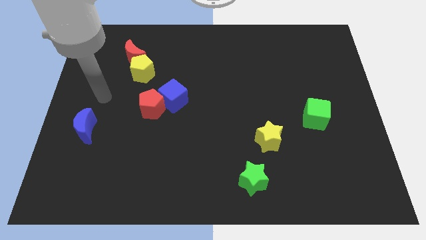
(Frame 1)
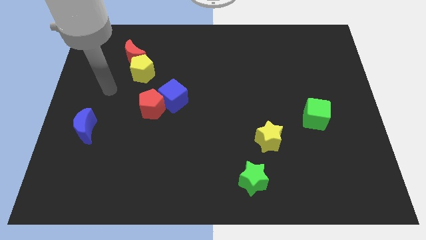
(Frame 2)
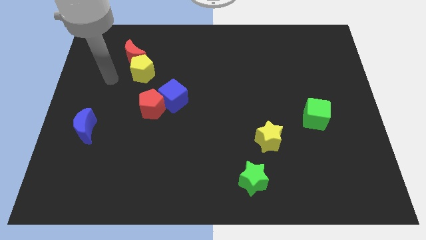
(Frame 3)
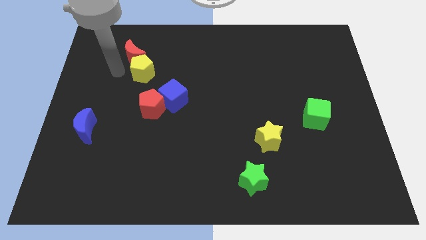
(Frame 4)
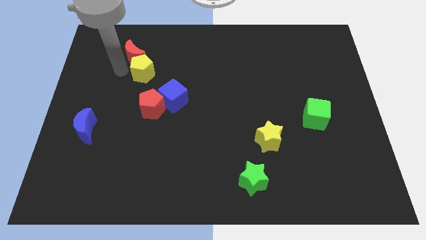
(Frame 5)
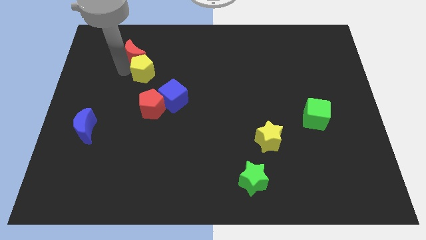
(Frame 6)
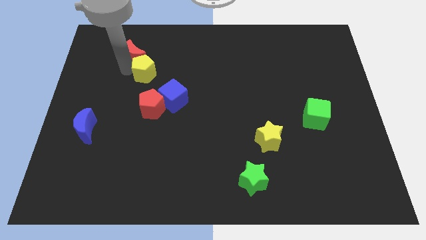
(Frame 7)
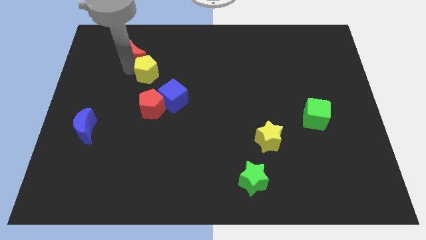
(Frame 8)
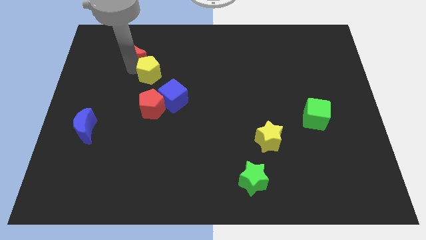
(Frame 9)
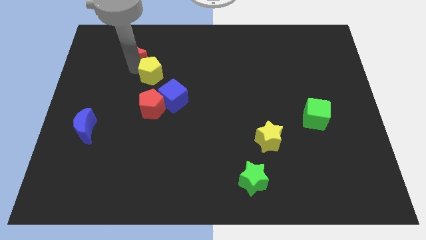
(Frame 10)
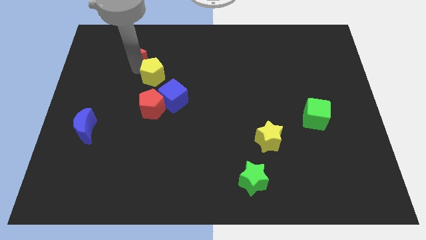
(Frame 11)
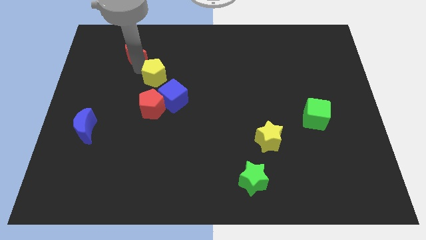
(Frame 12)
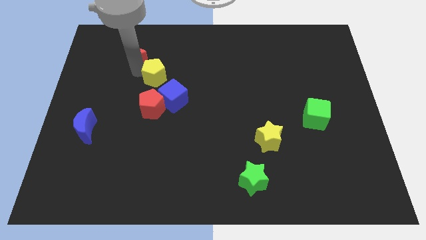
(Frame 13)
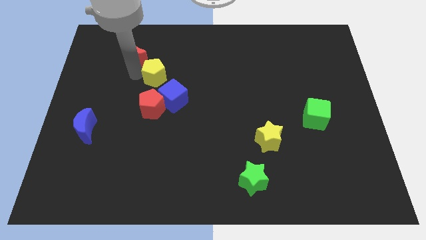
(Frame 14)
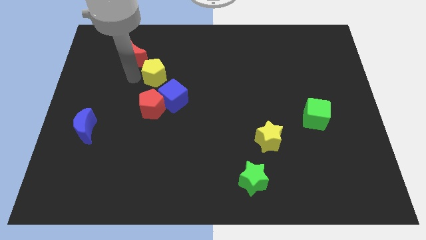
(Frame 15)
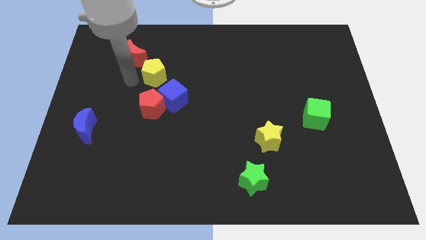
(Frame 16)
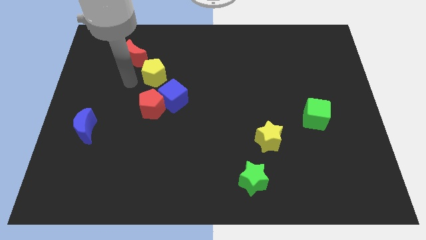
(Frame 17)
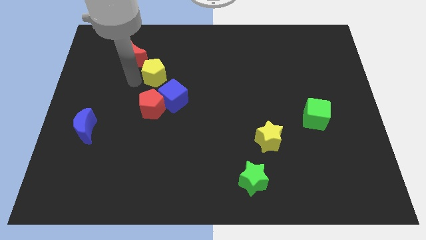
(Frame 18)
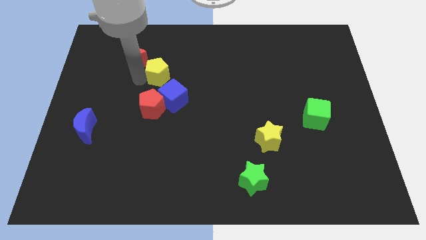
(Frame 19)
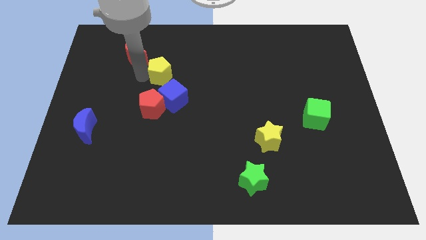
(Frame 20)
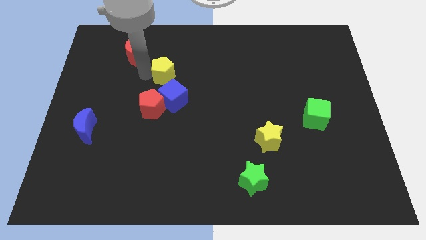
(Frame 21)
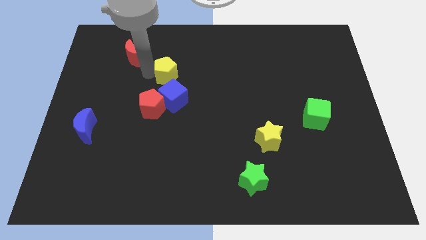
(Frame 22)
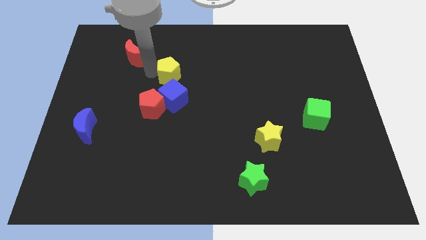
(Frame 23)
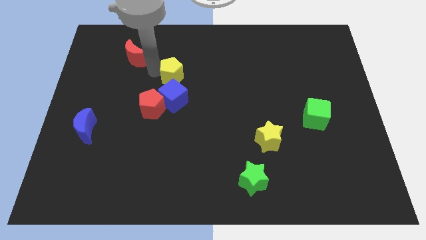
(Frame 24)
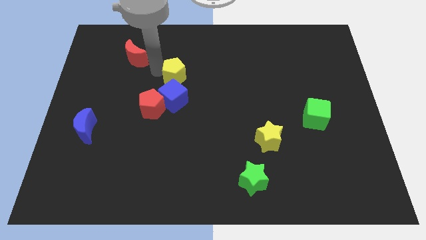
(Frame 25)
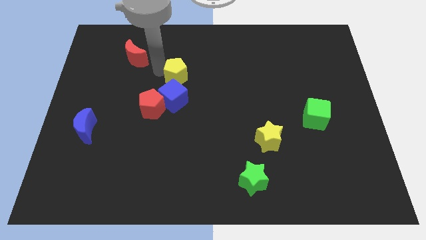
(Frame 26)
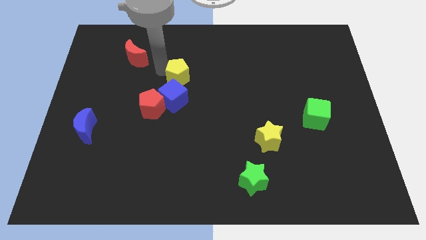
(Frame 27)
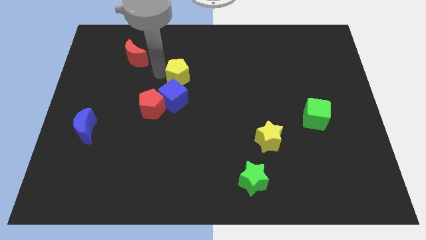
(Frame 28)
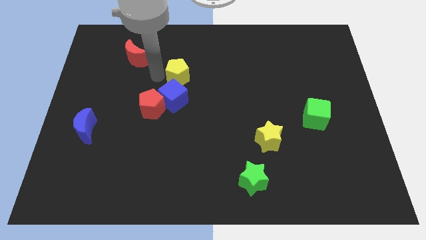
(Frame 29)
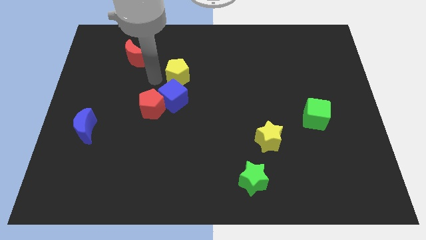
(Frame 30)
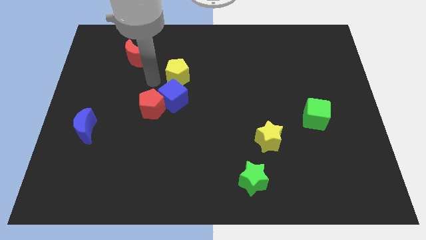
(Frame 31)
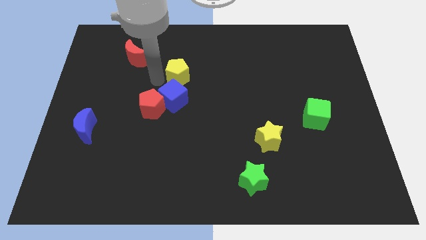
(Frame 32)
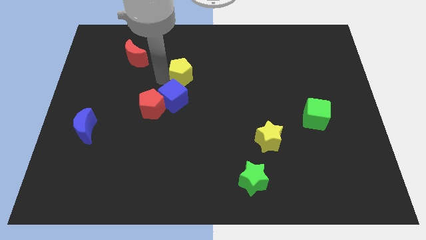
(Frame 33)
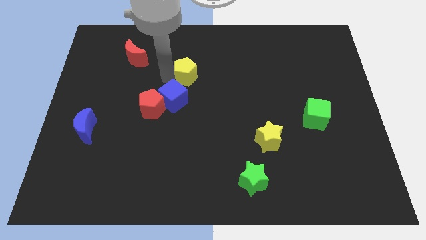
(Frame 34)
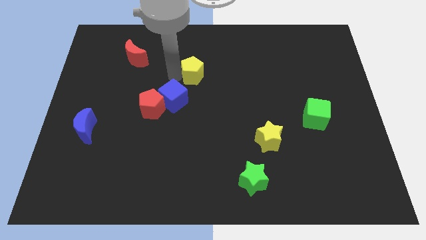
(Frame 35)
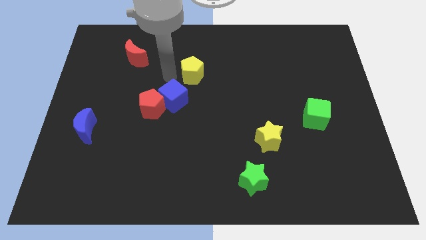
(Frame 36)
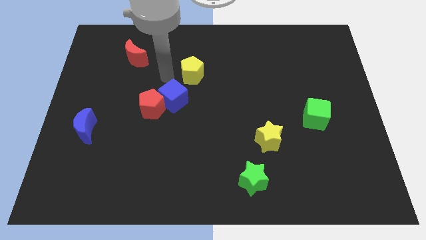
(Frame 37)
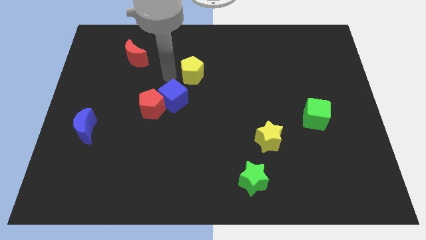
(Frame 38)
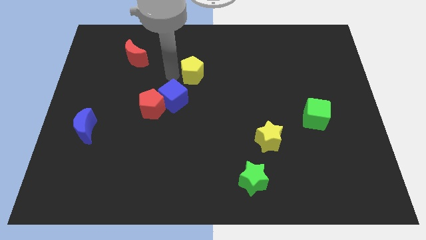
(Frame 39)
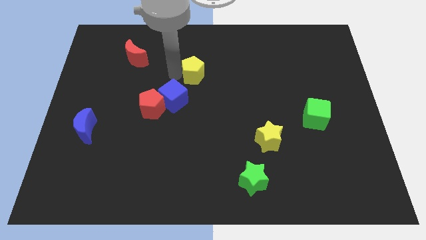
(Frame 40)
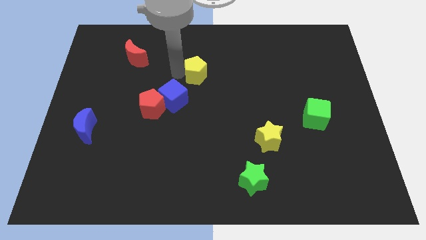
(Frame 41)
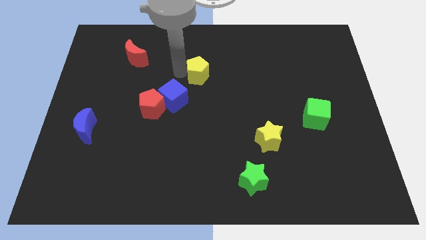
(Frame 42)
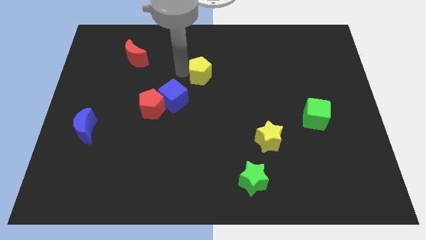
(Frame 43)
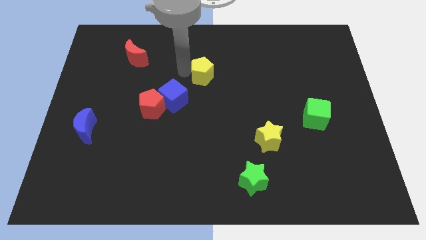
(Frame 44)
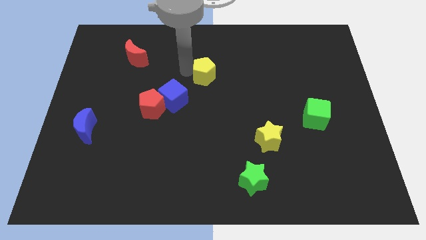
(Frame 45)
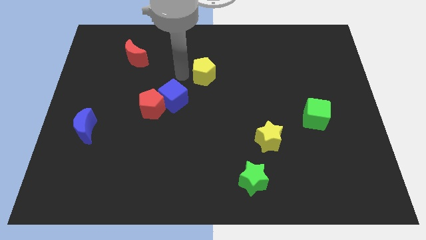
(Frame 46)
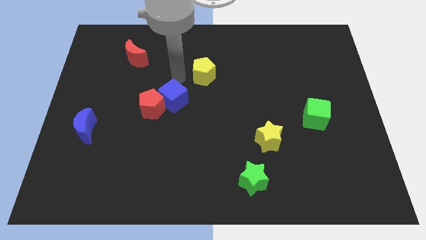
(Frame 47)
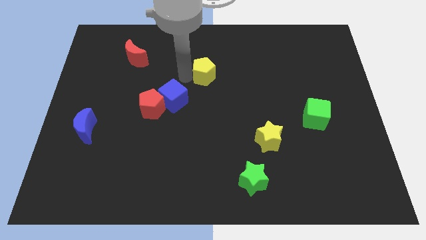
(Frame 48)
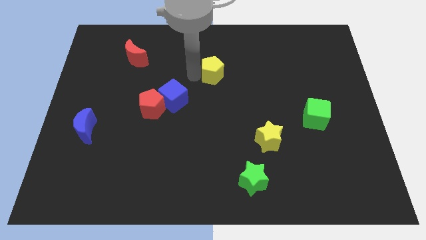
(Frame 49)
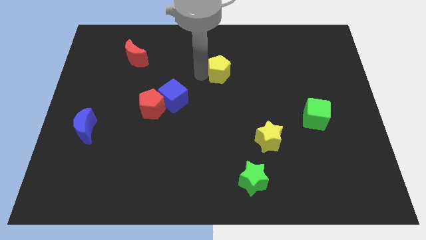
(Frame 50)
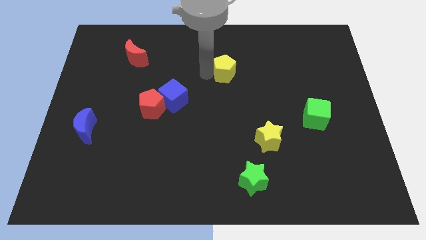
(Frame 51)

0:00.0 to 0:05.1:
push the yellow pentagon right

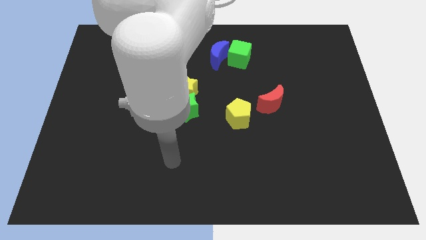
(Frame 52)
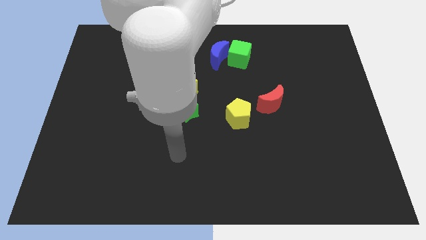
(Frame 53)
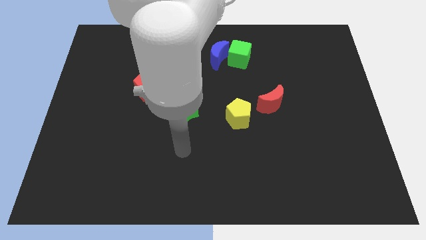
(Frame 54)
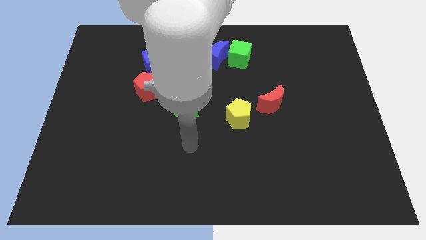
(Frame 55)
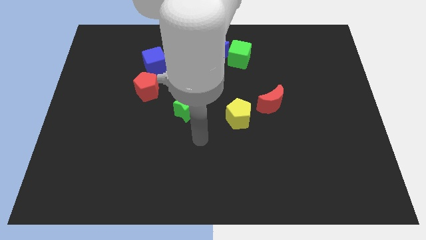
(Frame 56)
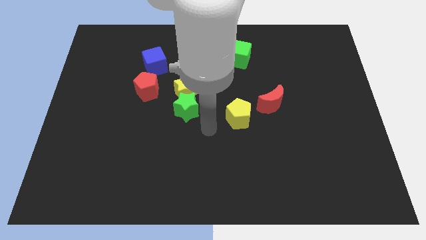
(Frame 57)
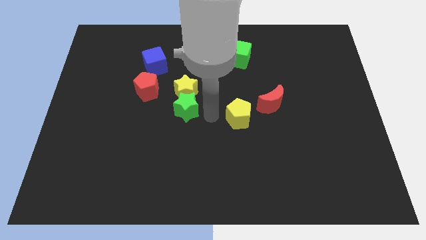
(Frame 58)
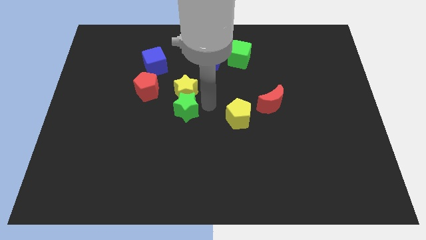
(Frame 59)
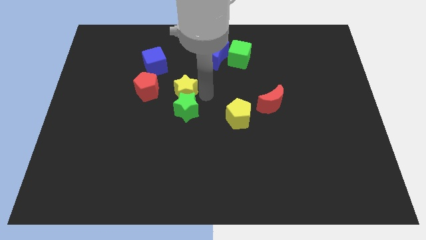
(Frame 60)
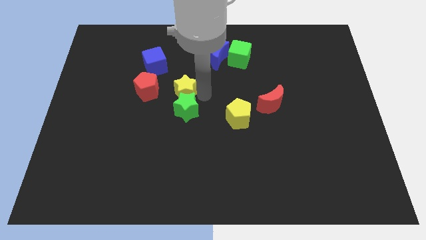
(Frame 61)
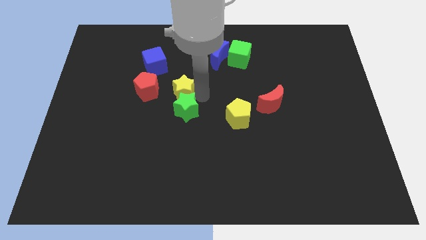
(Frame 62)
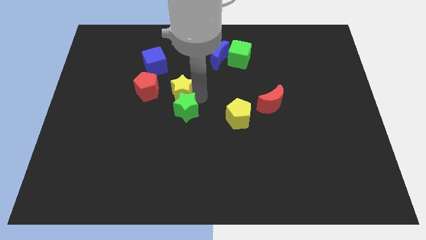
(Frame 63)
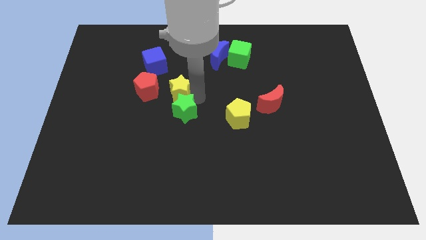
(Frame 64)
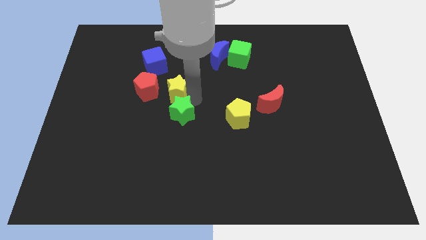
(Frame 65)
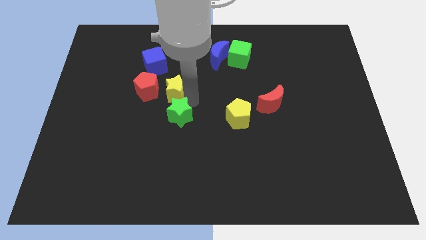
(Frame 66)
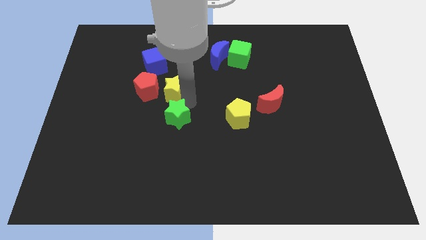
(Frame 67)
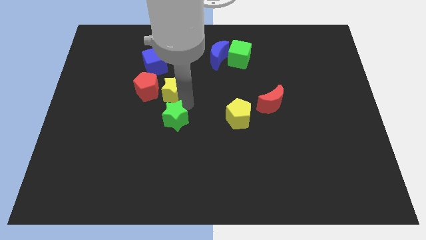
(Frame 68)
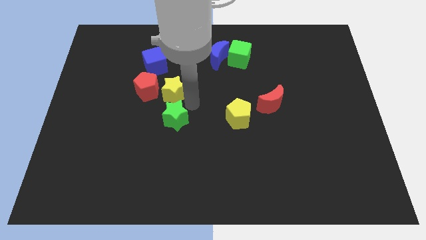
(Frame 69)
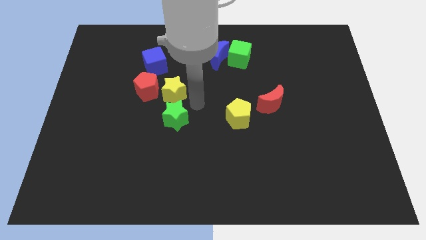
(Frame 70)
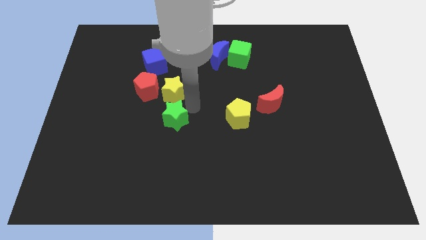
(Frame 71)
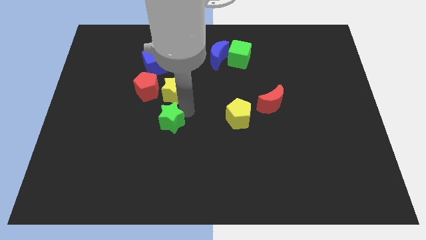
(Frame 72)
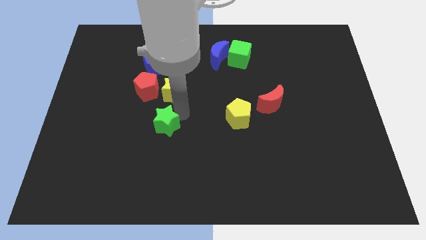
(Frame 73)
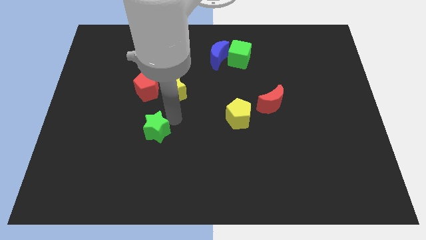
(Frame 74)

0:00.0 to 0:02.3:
move the green star downwards and left a bit

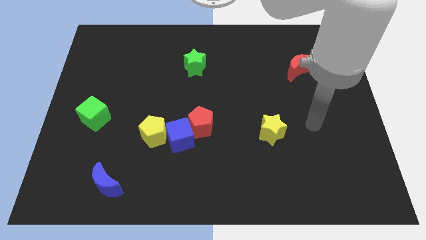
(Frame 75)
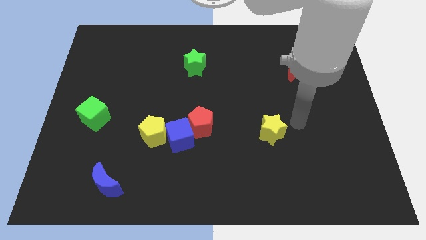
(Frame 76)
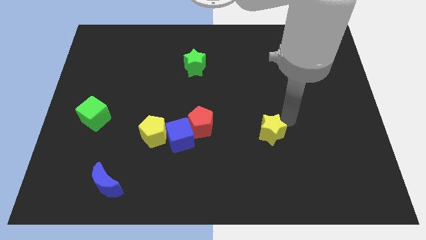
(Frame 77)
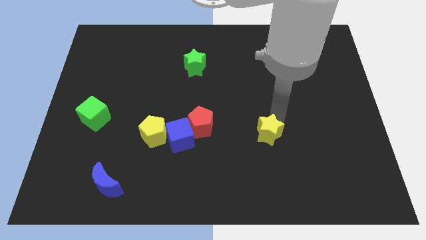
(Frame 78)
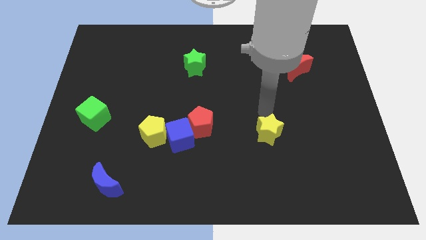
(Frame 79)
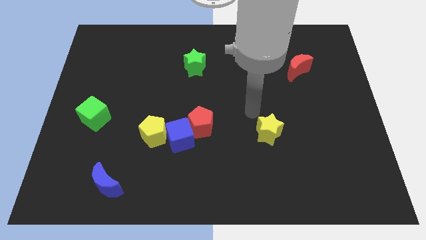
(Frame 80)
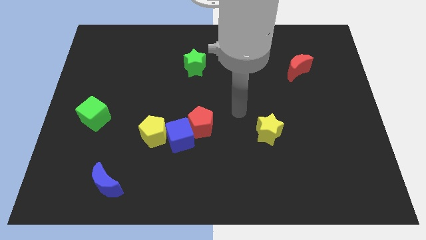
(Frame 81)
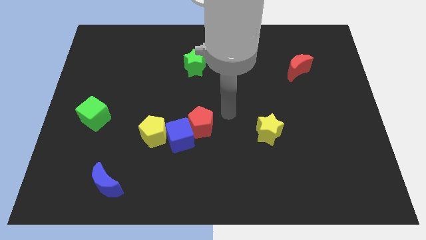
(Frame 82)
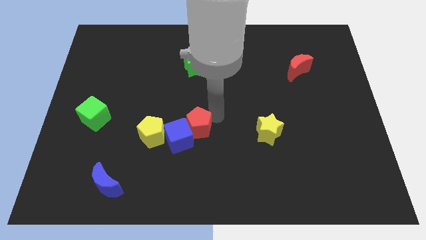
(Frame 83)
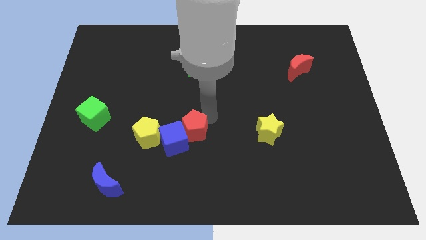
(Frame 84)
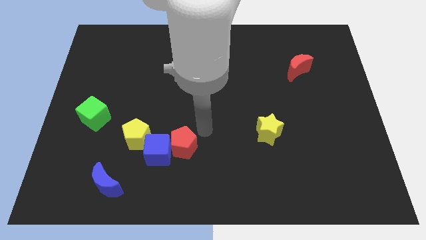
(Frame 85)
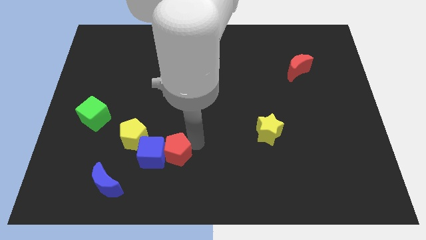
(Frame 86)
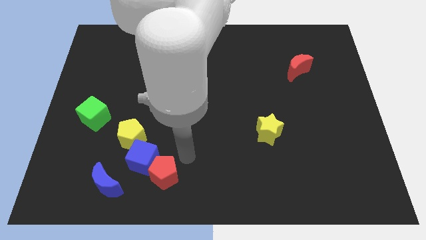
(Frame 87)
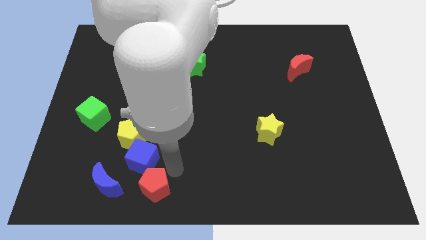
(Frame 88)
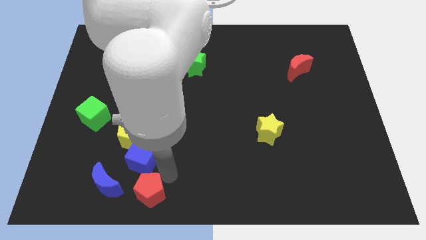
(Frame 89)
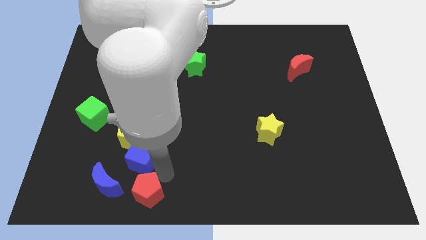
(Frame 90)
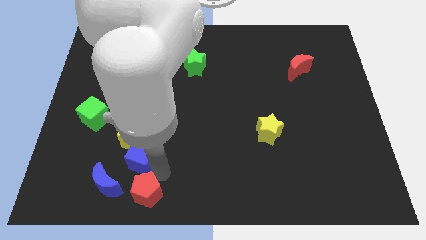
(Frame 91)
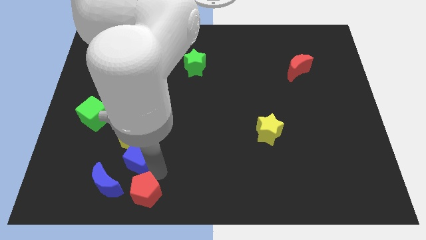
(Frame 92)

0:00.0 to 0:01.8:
move the blue cube somewhat to the left
